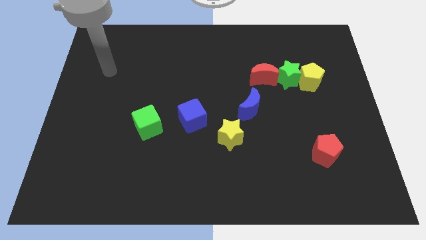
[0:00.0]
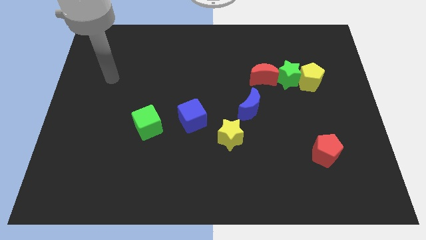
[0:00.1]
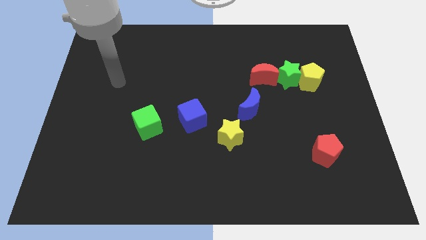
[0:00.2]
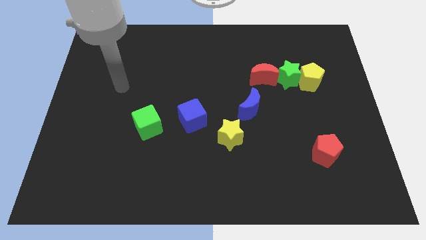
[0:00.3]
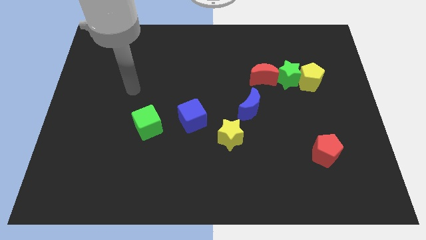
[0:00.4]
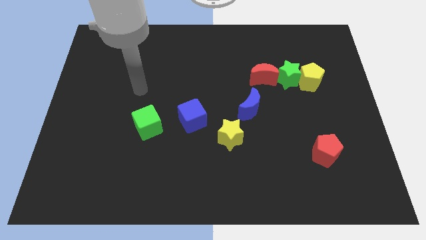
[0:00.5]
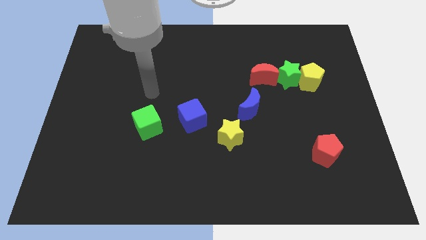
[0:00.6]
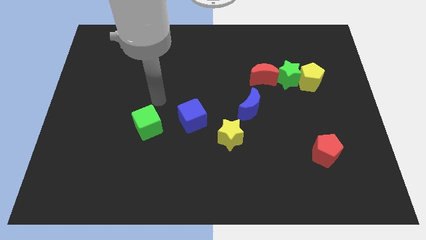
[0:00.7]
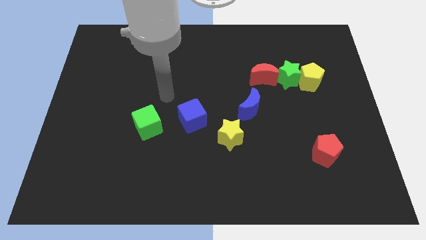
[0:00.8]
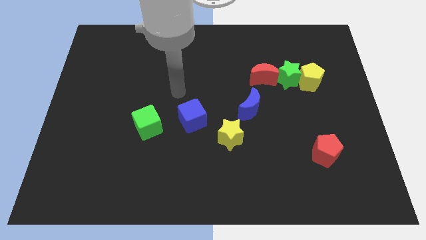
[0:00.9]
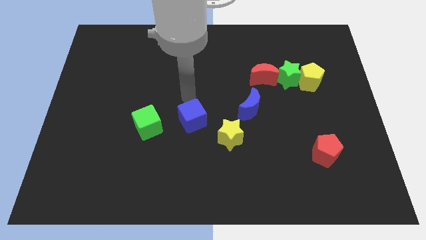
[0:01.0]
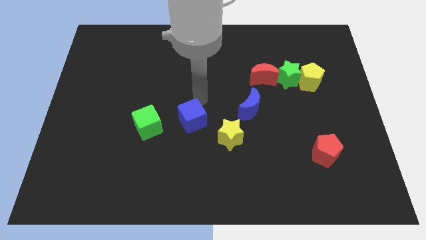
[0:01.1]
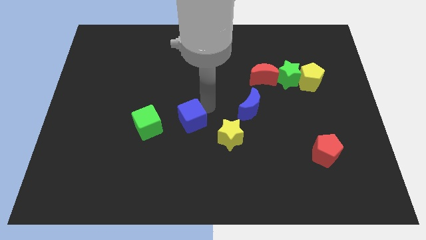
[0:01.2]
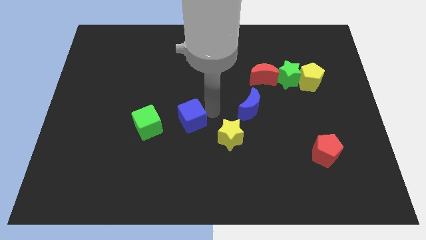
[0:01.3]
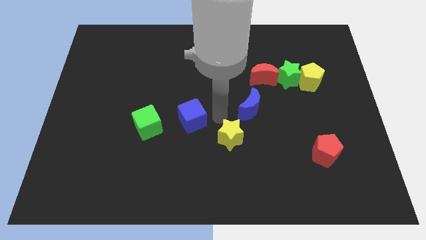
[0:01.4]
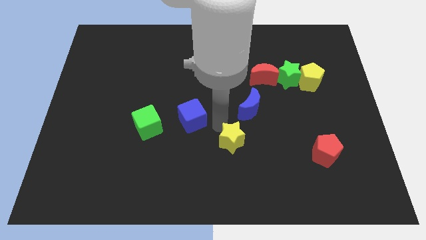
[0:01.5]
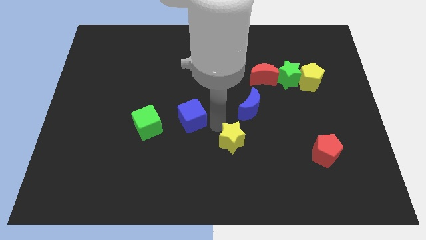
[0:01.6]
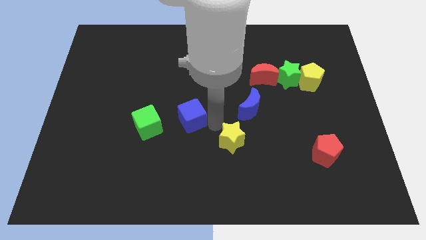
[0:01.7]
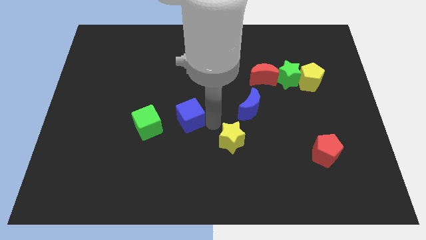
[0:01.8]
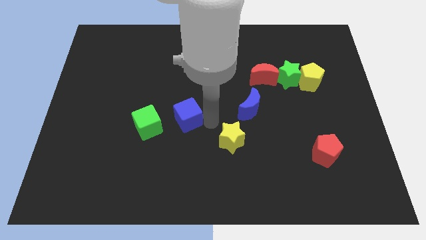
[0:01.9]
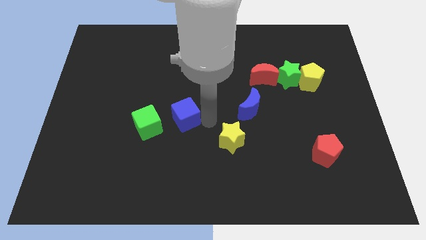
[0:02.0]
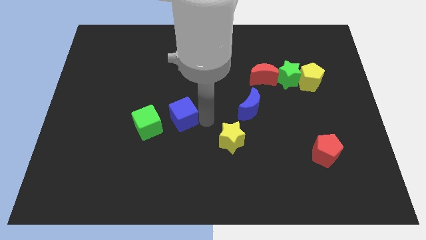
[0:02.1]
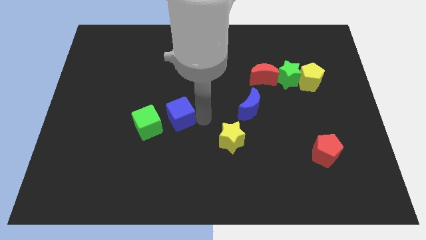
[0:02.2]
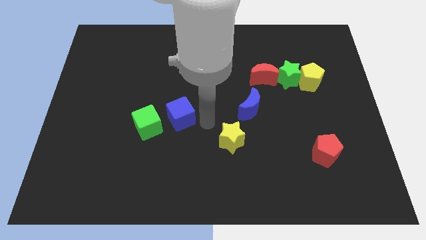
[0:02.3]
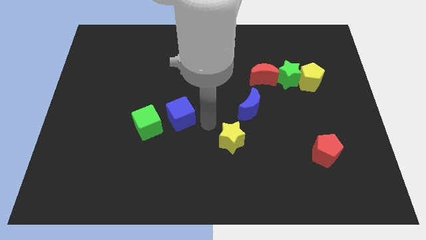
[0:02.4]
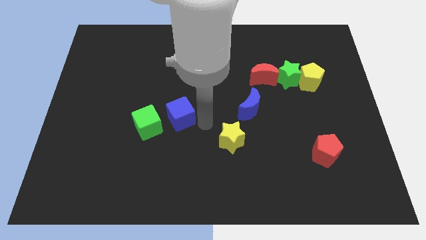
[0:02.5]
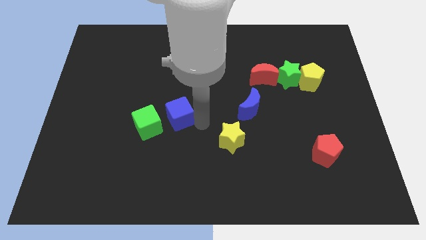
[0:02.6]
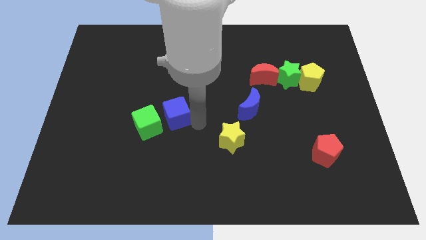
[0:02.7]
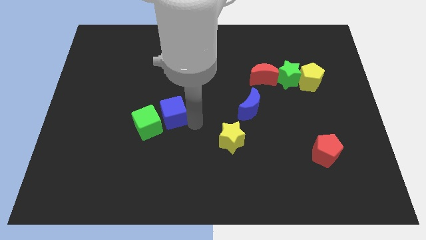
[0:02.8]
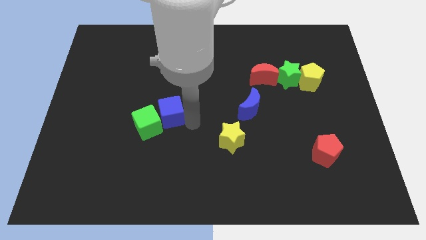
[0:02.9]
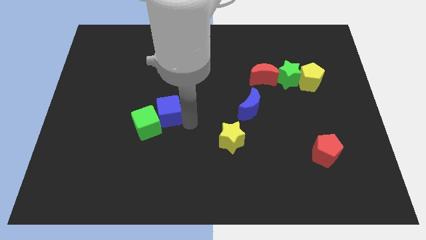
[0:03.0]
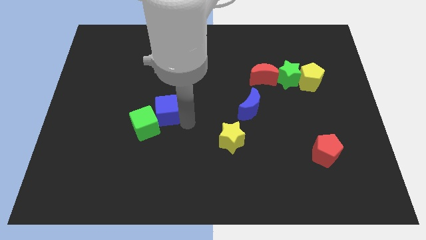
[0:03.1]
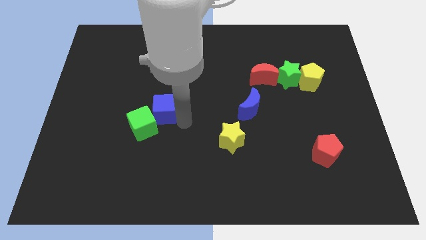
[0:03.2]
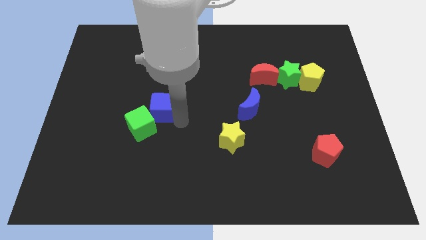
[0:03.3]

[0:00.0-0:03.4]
slide the blue cube left a bit

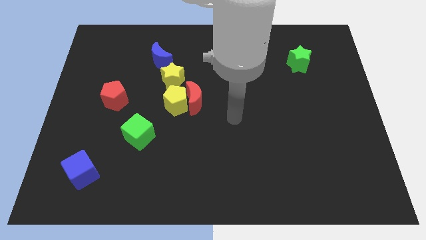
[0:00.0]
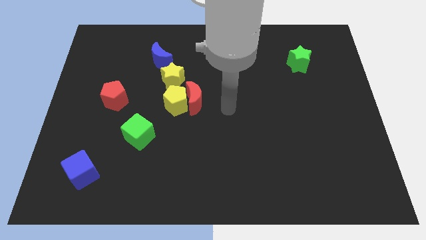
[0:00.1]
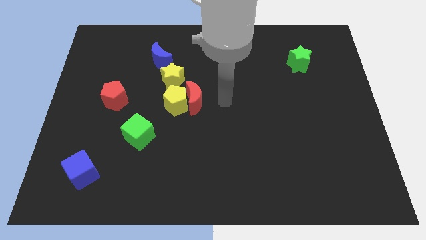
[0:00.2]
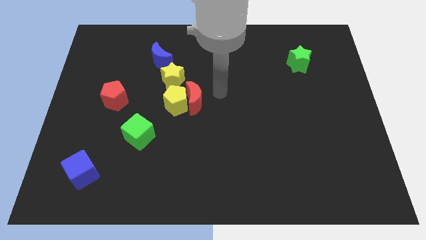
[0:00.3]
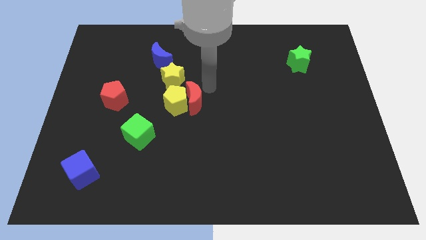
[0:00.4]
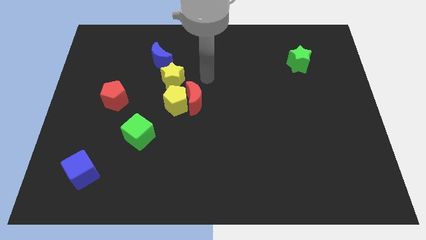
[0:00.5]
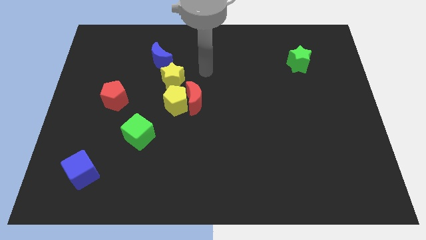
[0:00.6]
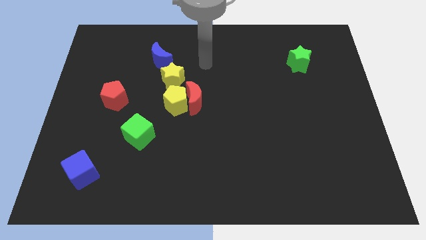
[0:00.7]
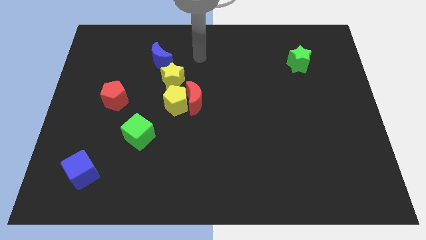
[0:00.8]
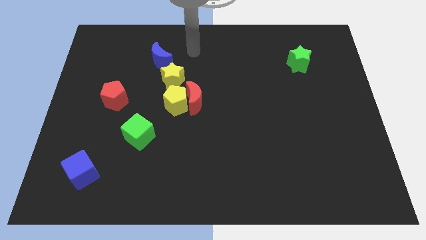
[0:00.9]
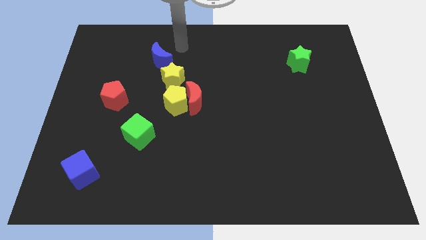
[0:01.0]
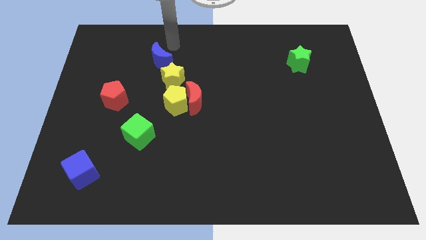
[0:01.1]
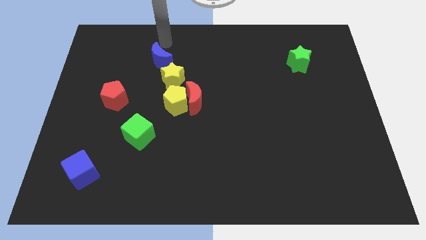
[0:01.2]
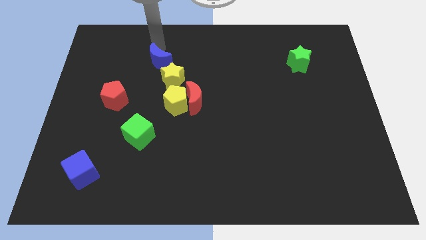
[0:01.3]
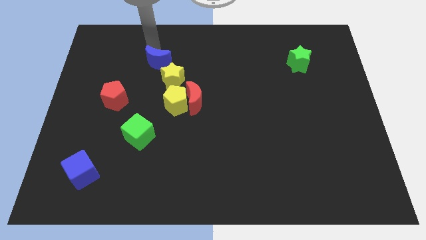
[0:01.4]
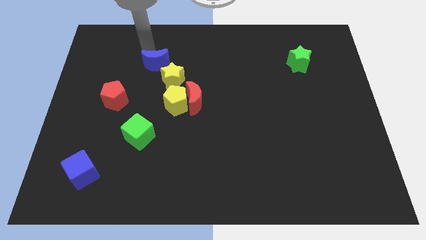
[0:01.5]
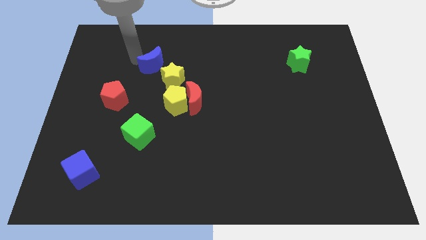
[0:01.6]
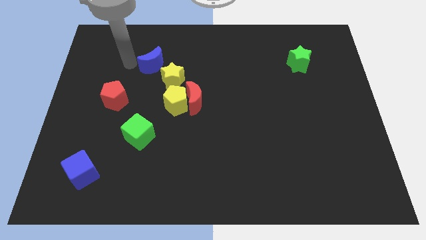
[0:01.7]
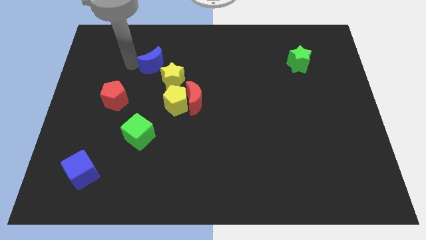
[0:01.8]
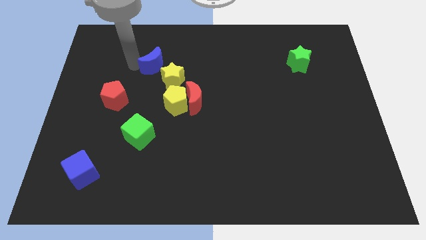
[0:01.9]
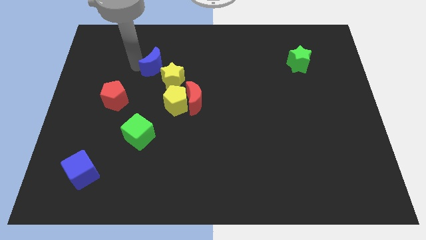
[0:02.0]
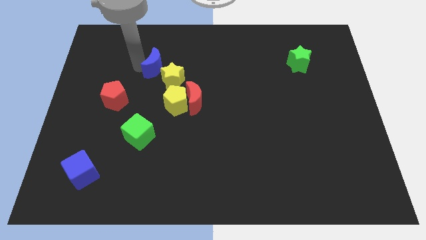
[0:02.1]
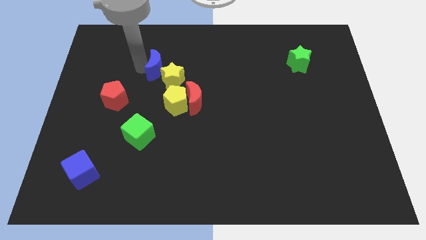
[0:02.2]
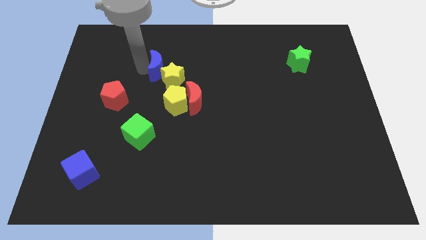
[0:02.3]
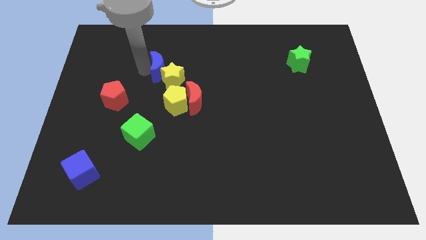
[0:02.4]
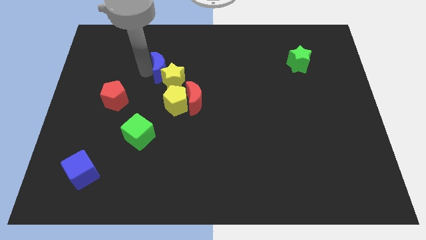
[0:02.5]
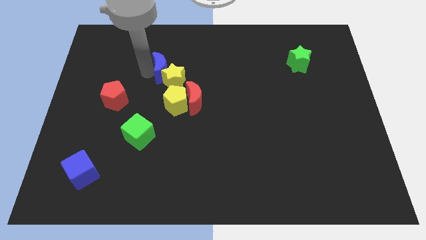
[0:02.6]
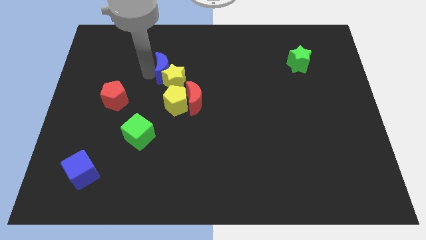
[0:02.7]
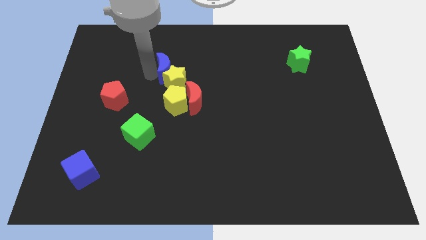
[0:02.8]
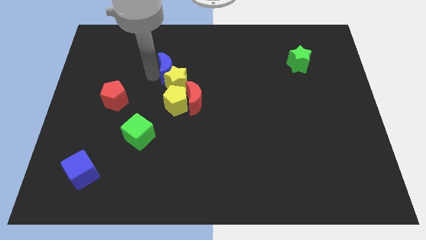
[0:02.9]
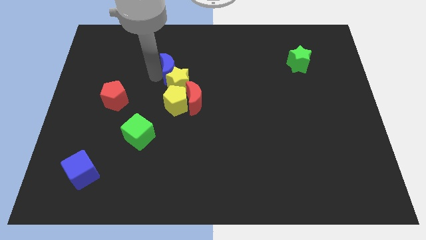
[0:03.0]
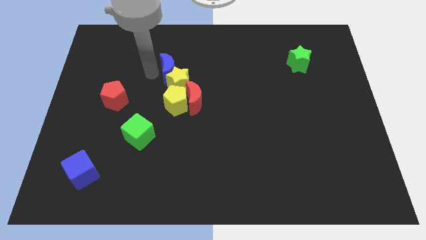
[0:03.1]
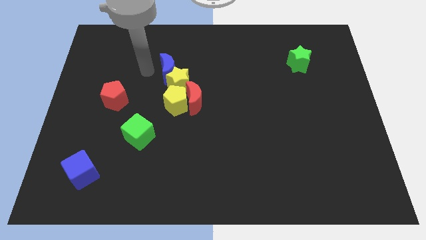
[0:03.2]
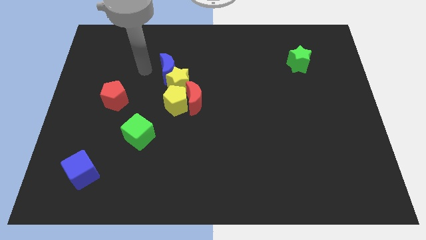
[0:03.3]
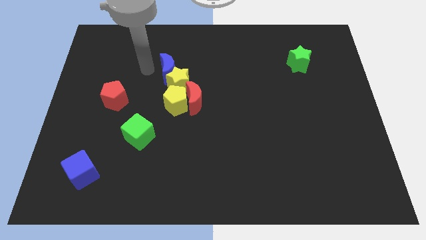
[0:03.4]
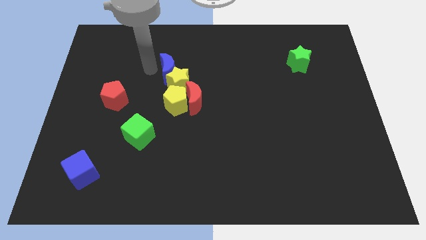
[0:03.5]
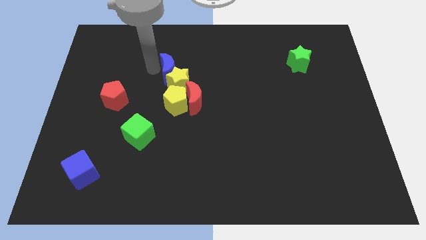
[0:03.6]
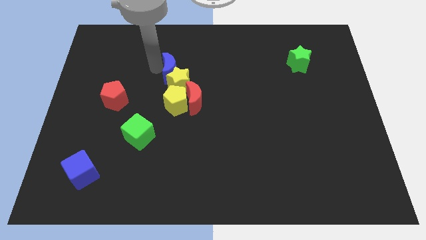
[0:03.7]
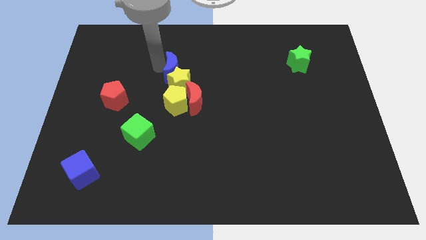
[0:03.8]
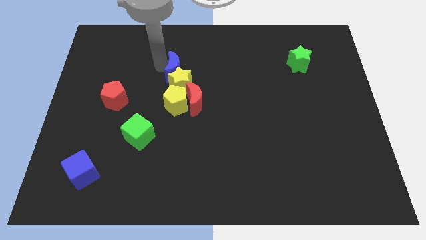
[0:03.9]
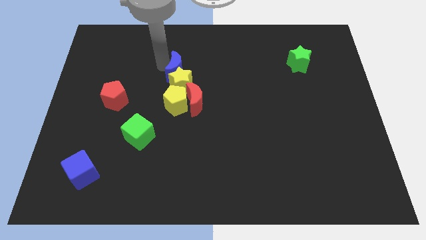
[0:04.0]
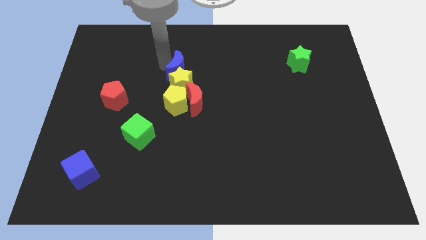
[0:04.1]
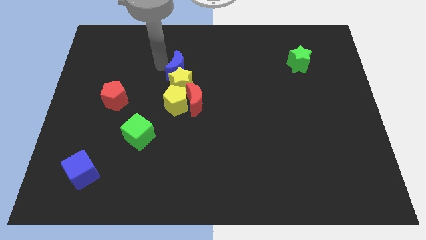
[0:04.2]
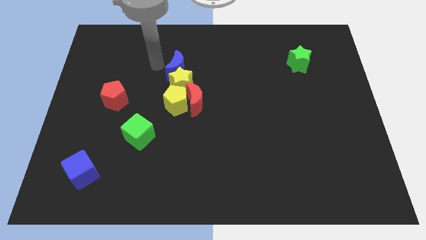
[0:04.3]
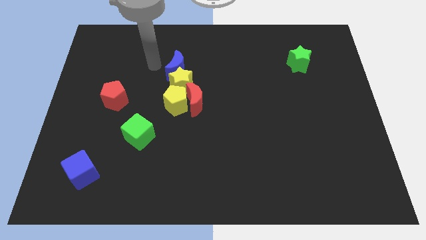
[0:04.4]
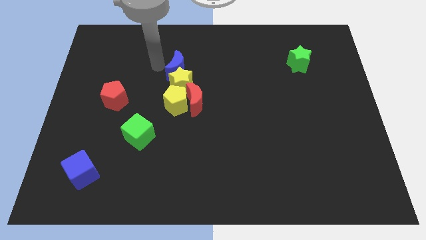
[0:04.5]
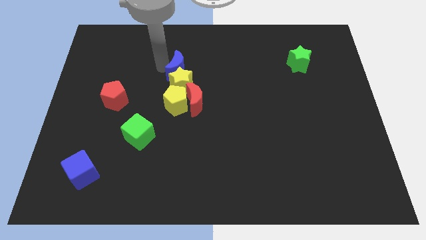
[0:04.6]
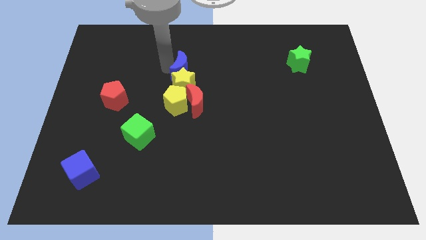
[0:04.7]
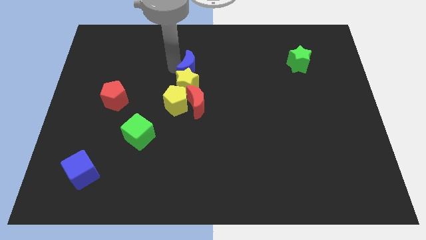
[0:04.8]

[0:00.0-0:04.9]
slightly slide the blue moon downwards and right
